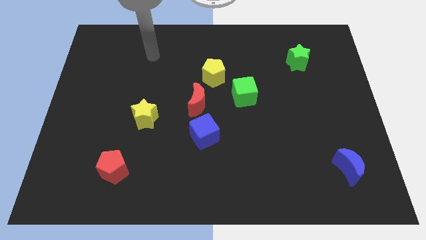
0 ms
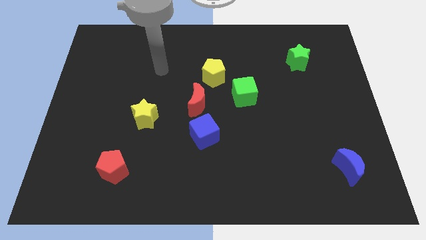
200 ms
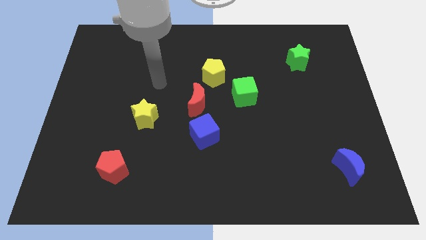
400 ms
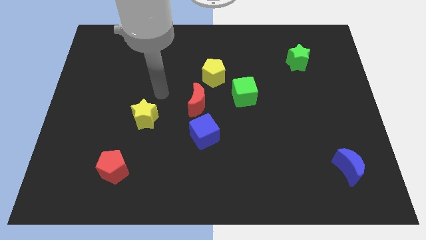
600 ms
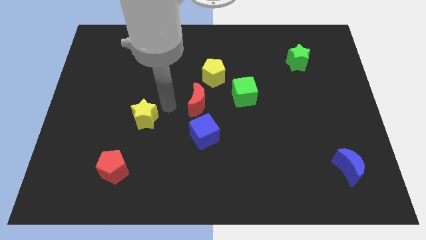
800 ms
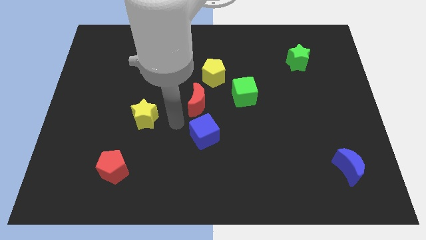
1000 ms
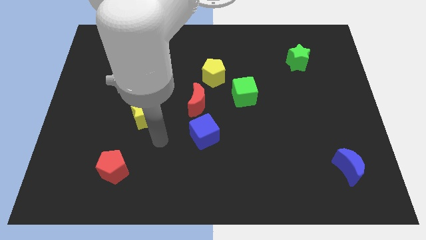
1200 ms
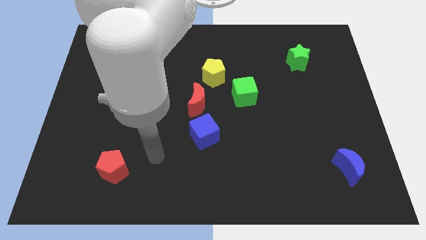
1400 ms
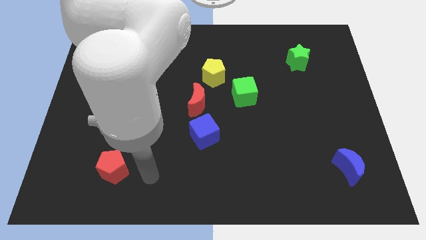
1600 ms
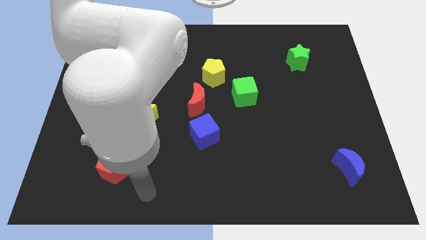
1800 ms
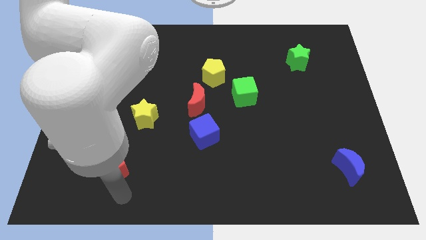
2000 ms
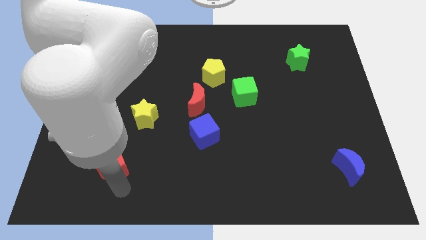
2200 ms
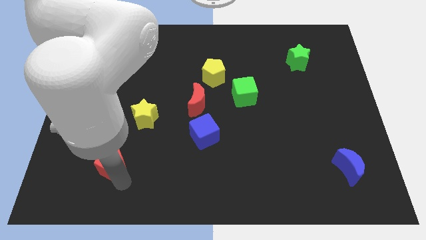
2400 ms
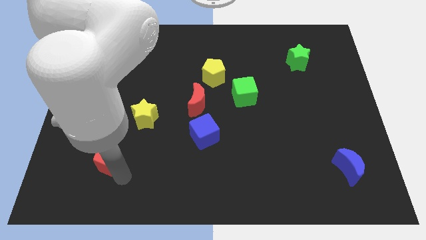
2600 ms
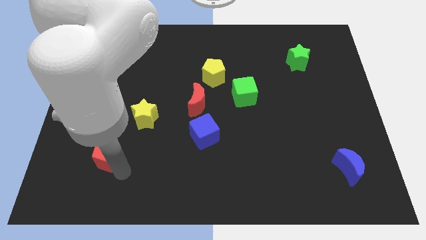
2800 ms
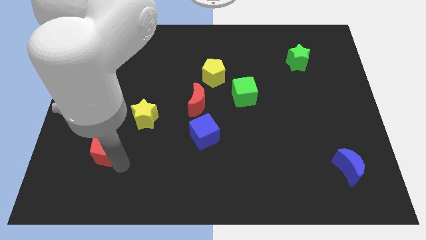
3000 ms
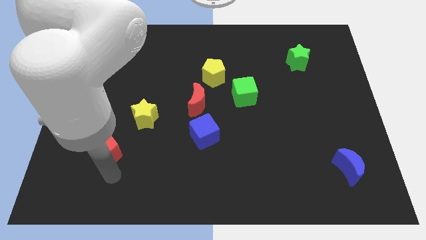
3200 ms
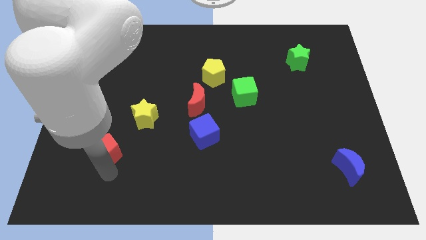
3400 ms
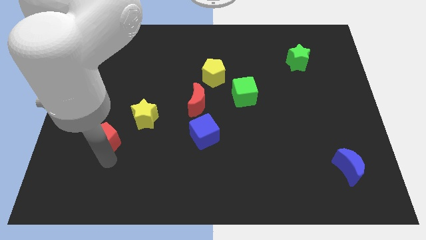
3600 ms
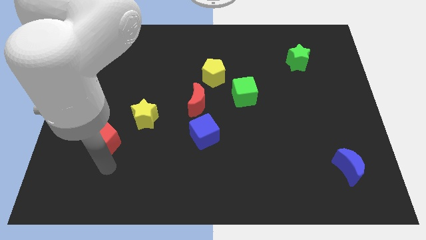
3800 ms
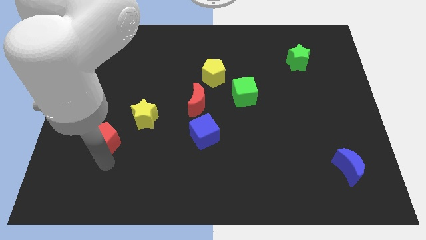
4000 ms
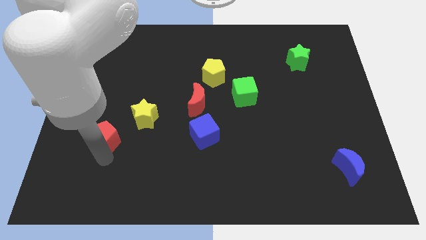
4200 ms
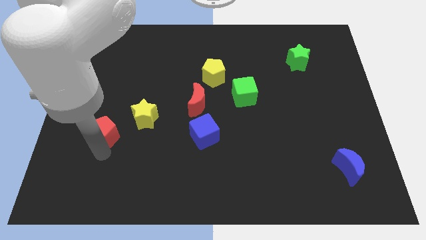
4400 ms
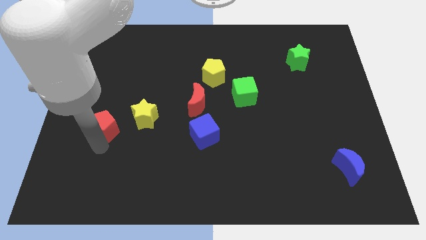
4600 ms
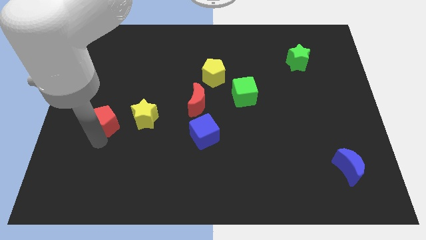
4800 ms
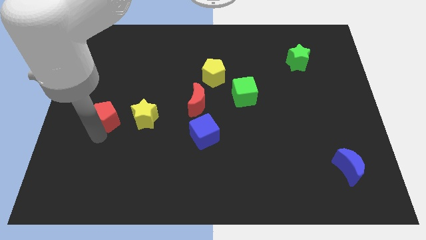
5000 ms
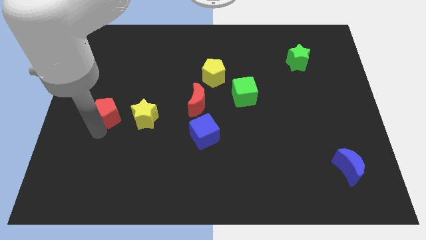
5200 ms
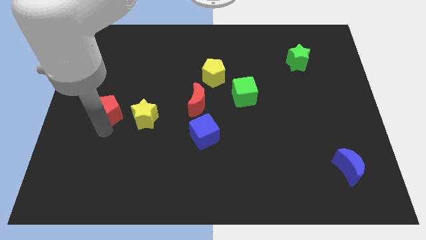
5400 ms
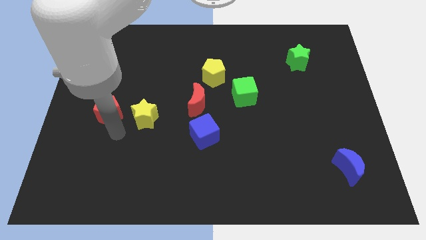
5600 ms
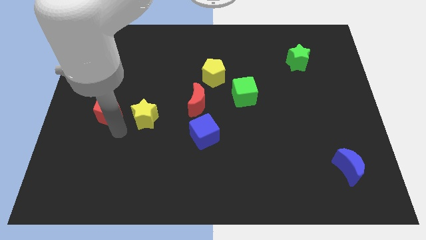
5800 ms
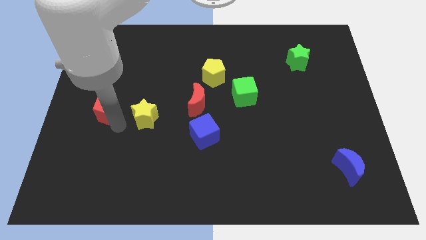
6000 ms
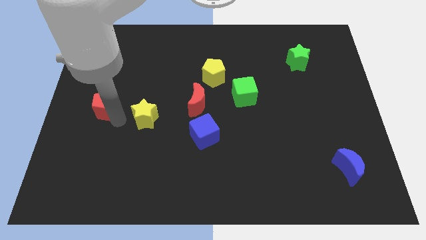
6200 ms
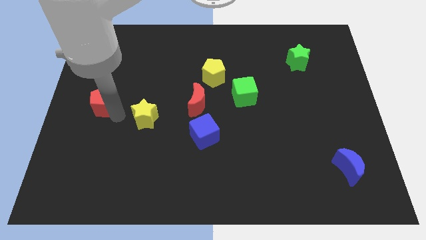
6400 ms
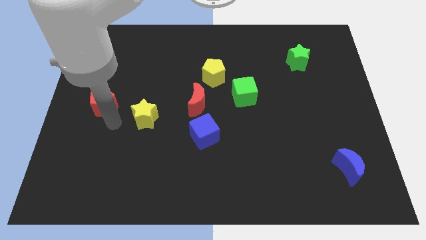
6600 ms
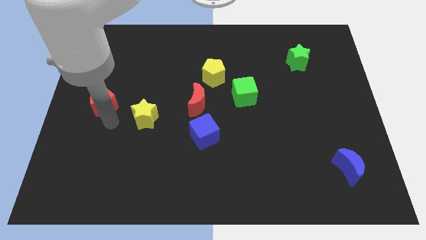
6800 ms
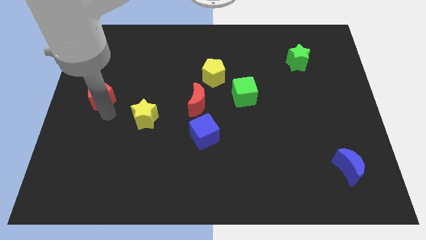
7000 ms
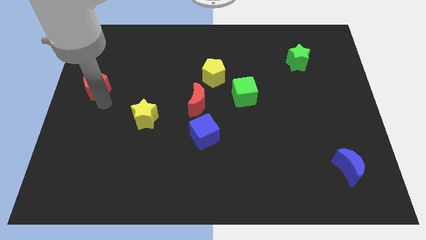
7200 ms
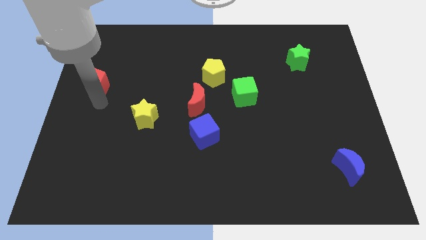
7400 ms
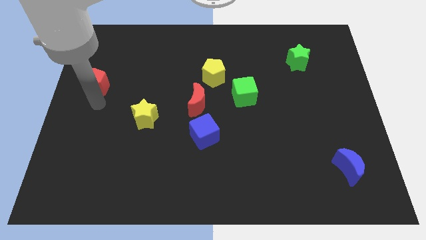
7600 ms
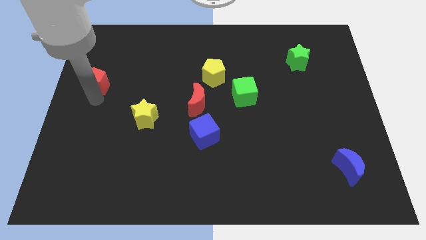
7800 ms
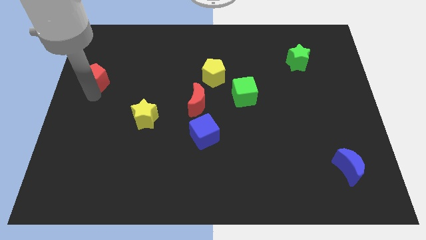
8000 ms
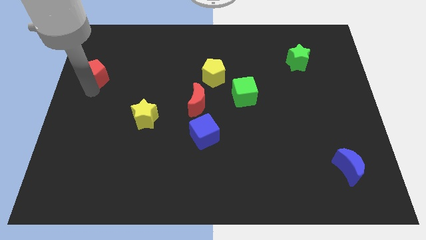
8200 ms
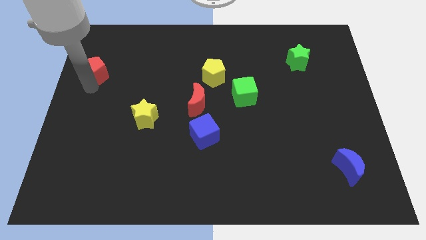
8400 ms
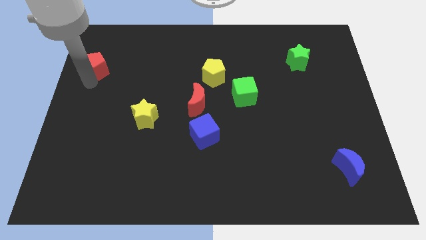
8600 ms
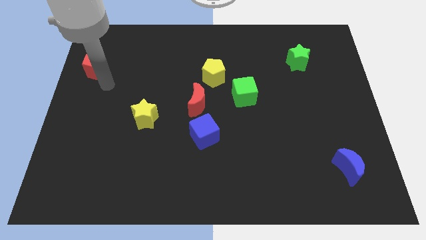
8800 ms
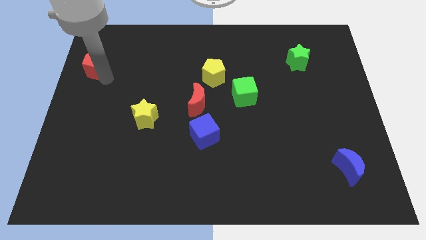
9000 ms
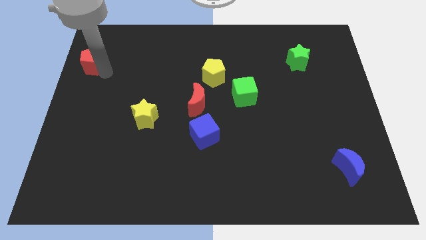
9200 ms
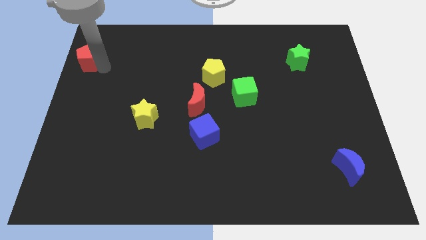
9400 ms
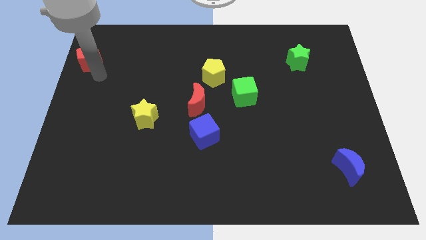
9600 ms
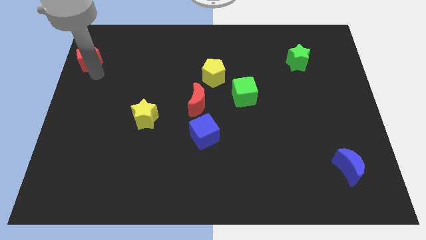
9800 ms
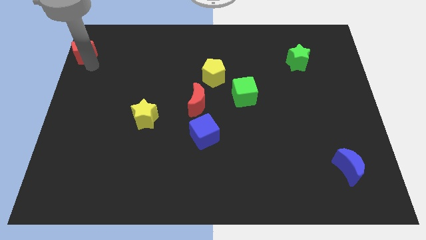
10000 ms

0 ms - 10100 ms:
put the red pentagon to the top left of the board

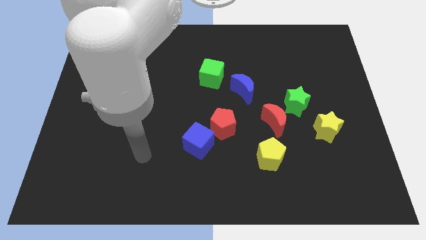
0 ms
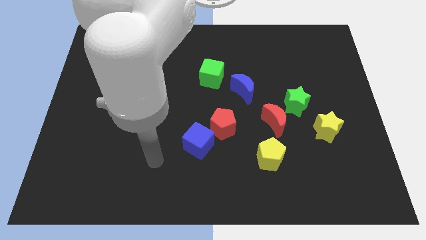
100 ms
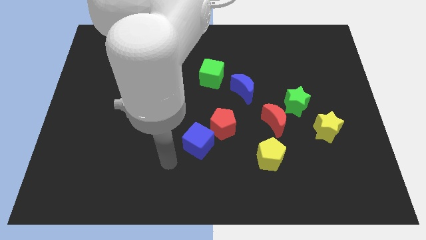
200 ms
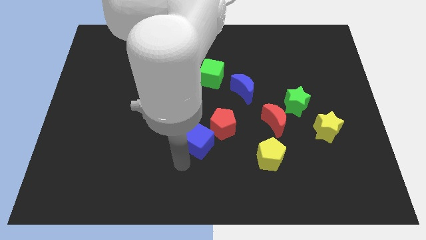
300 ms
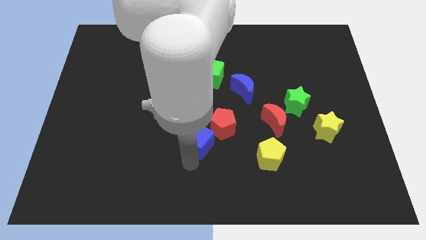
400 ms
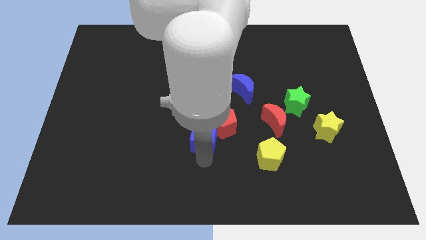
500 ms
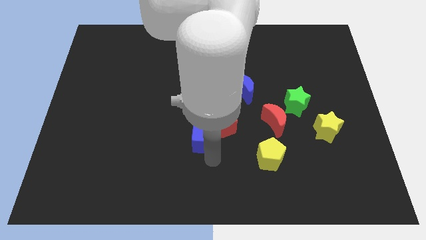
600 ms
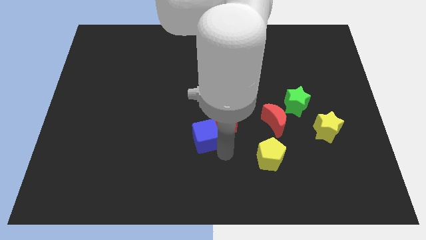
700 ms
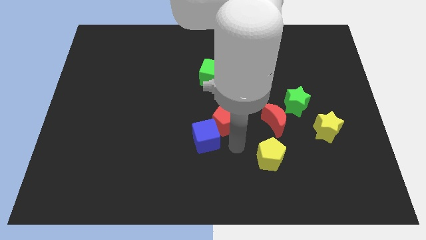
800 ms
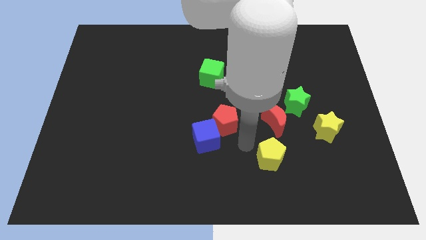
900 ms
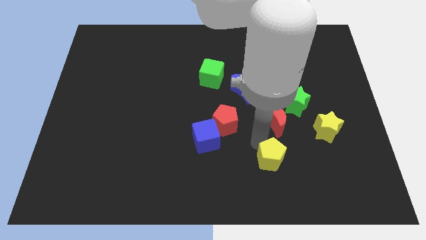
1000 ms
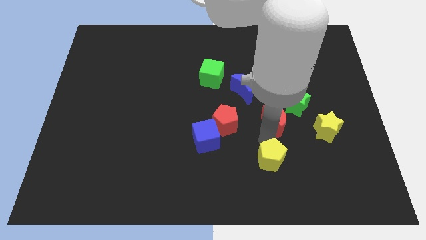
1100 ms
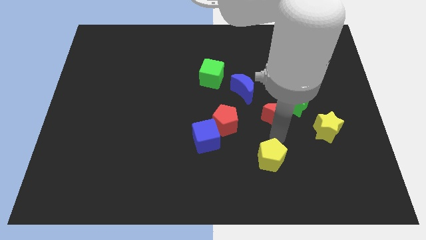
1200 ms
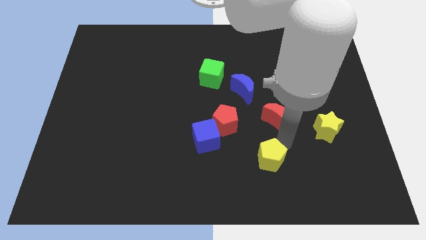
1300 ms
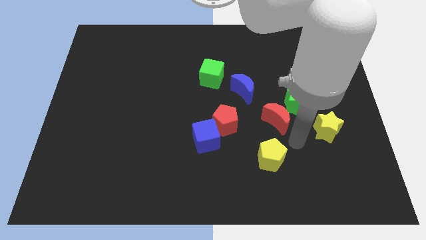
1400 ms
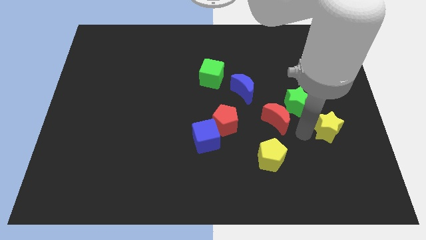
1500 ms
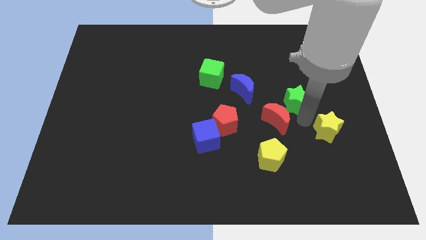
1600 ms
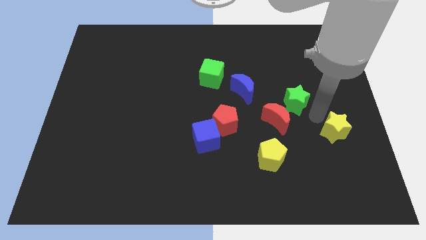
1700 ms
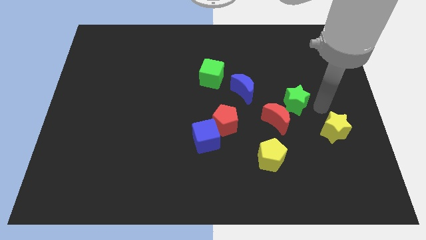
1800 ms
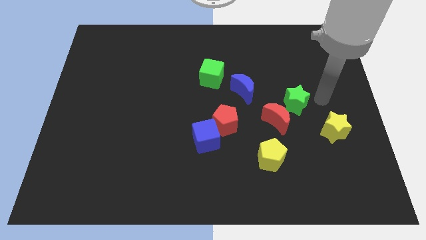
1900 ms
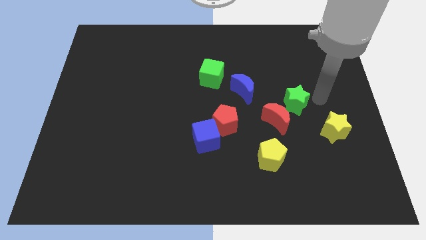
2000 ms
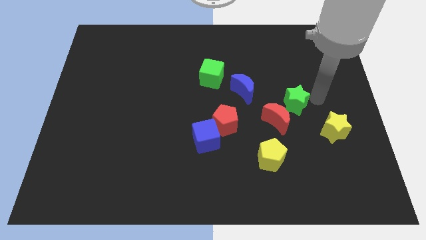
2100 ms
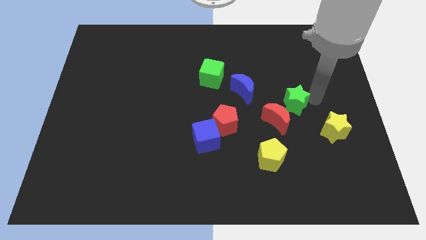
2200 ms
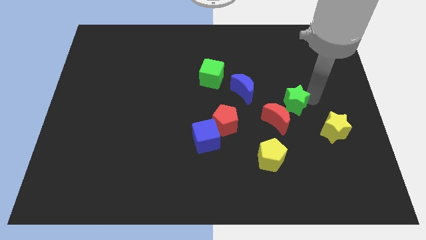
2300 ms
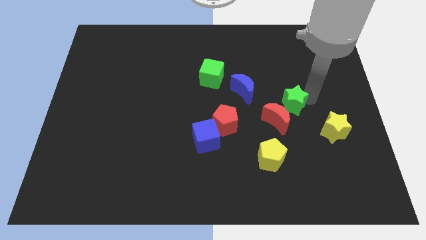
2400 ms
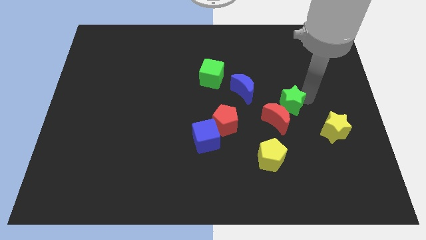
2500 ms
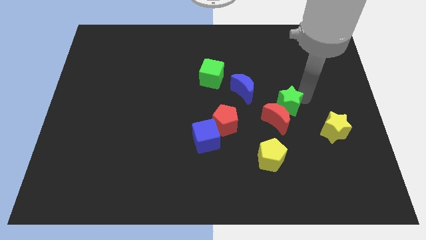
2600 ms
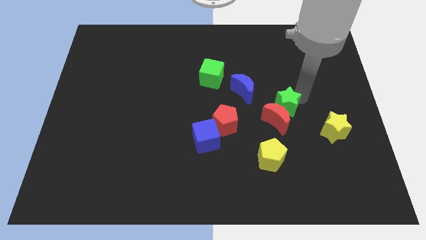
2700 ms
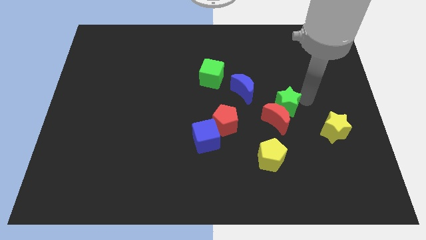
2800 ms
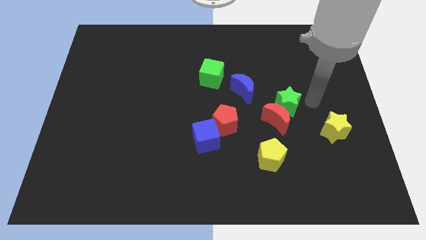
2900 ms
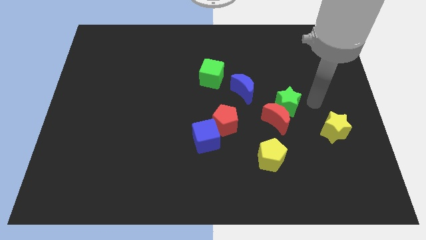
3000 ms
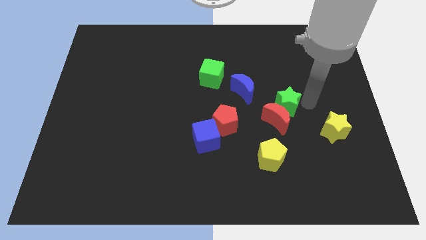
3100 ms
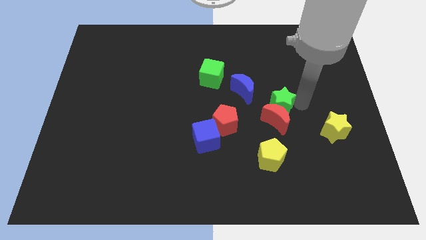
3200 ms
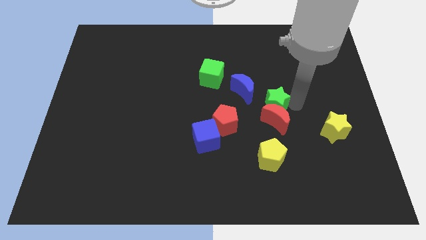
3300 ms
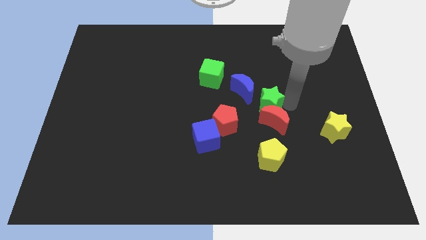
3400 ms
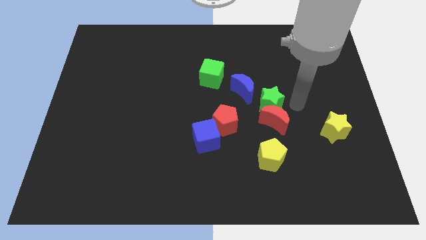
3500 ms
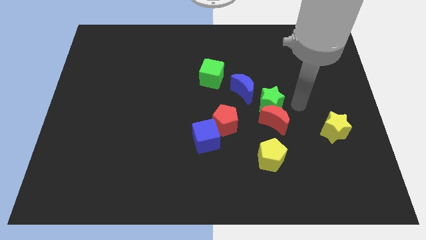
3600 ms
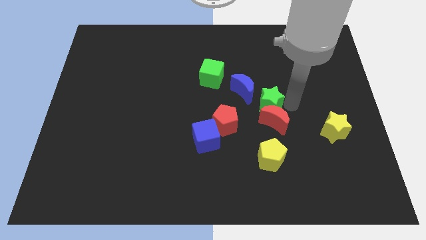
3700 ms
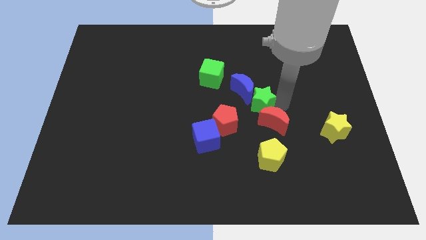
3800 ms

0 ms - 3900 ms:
push the green star to the middle of the board
